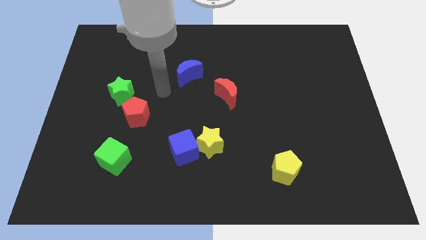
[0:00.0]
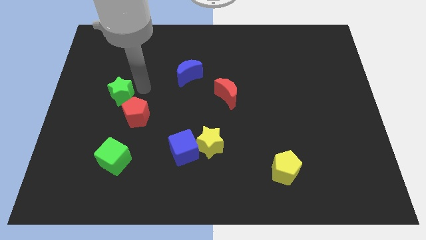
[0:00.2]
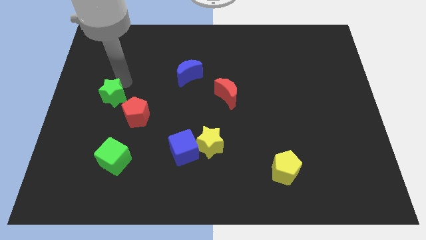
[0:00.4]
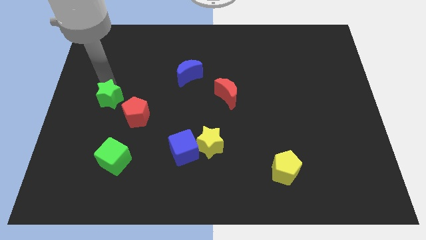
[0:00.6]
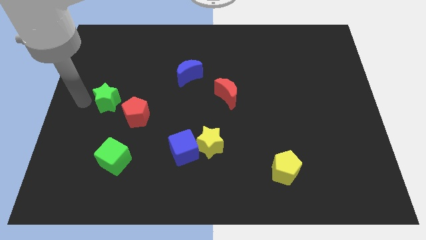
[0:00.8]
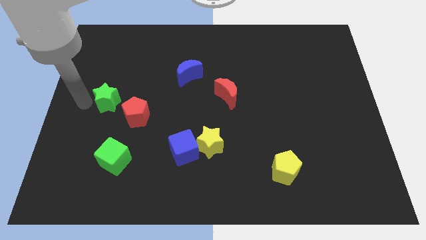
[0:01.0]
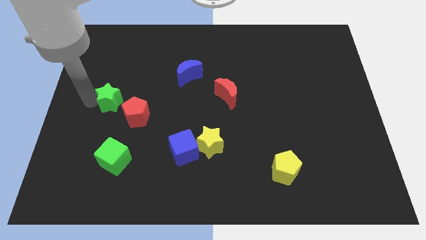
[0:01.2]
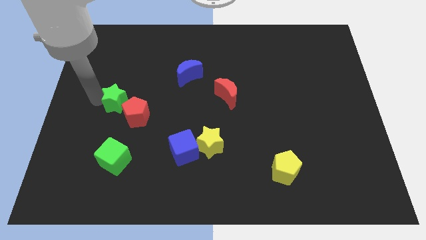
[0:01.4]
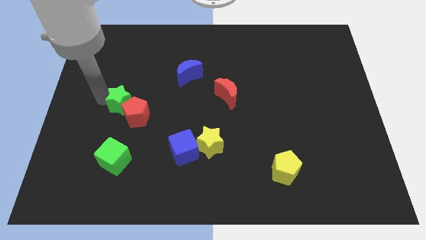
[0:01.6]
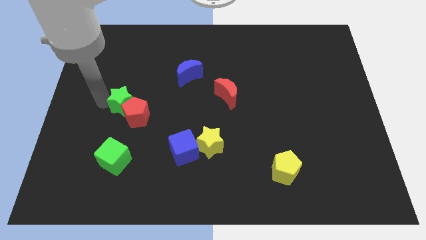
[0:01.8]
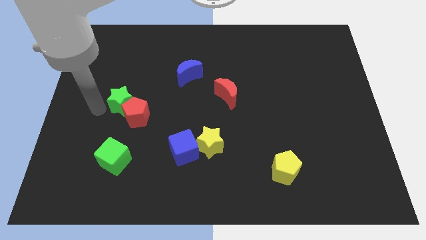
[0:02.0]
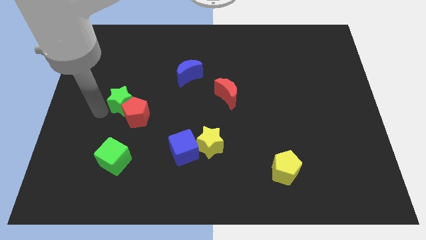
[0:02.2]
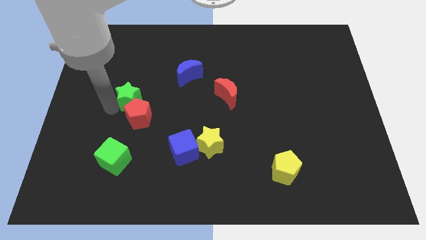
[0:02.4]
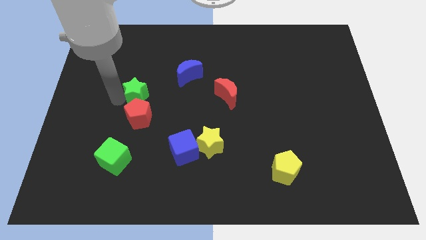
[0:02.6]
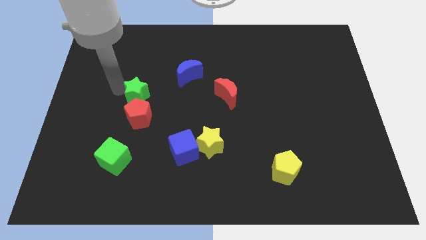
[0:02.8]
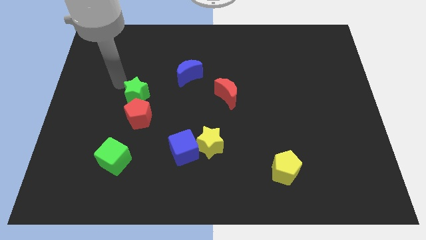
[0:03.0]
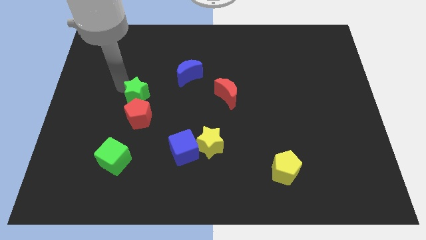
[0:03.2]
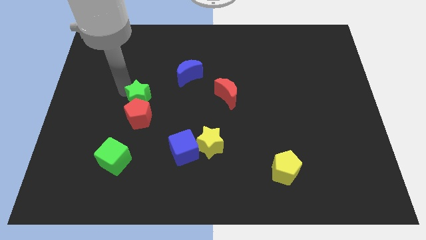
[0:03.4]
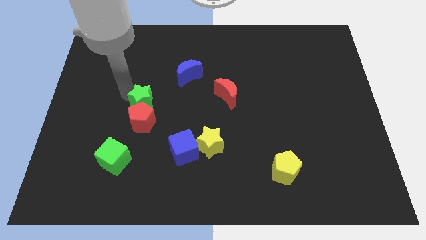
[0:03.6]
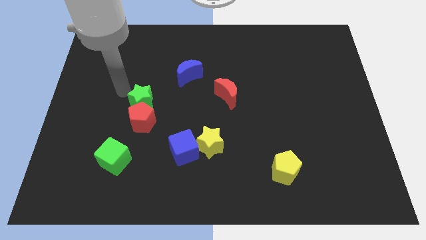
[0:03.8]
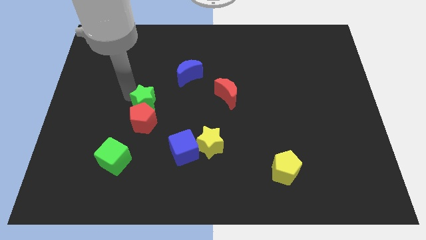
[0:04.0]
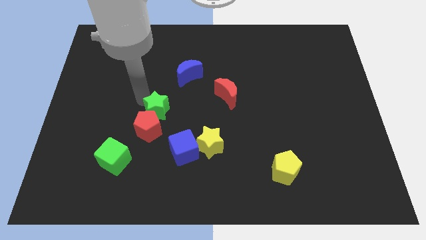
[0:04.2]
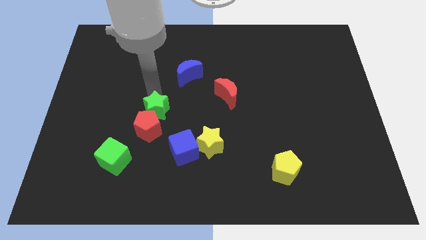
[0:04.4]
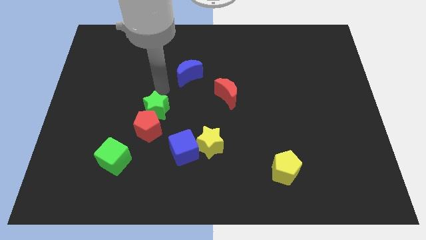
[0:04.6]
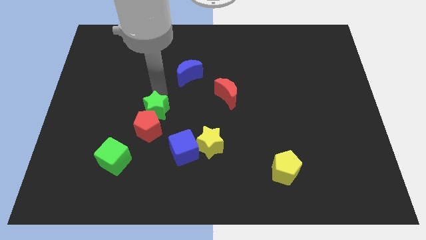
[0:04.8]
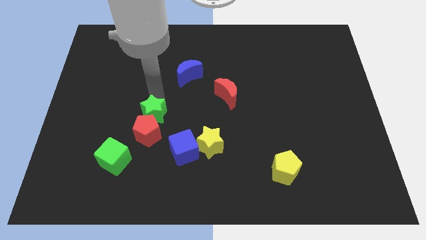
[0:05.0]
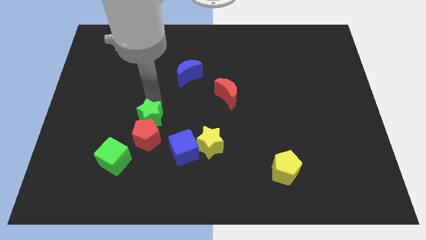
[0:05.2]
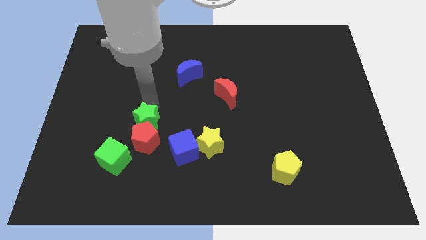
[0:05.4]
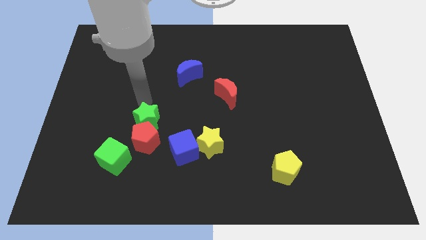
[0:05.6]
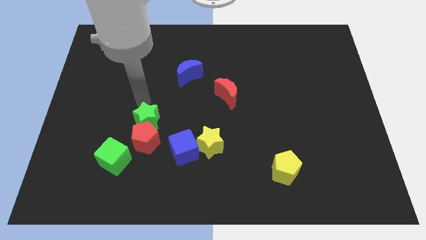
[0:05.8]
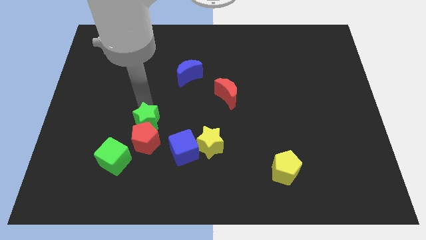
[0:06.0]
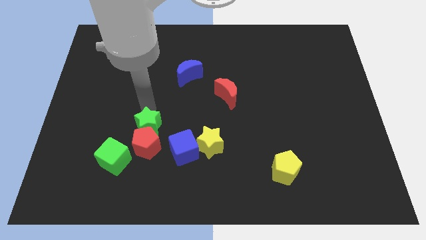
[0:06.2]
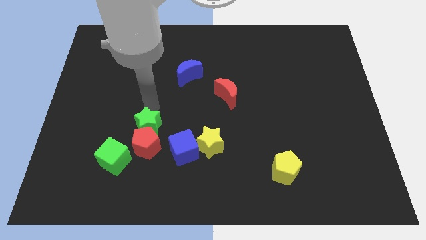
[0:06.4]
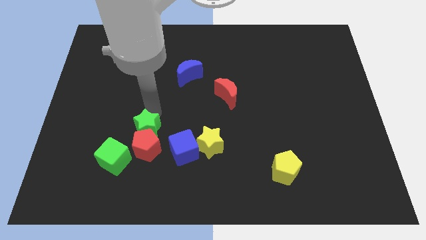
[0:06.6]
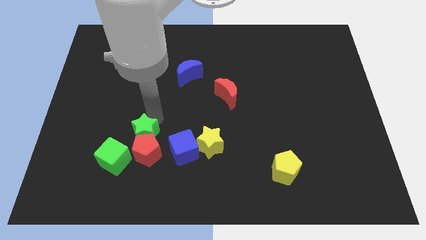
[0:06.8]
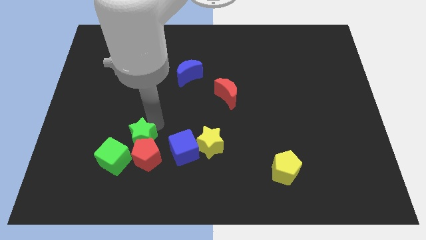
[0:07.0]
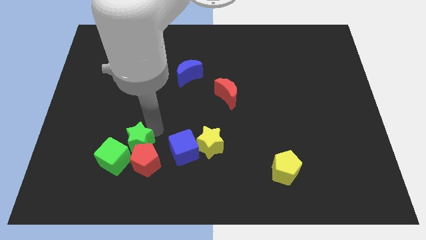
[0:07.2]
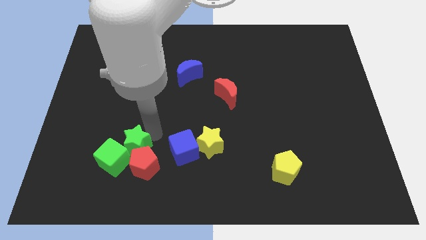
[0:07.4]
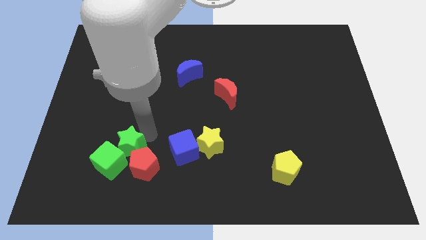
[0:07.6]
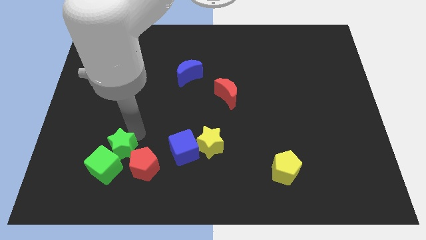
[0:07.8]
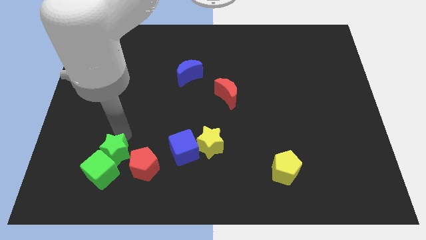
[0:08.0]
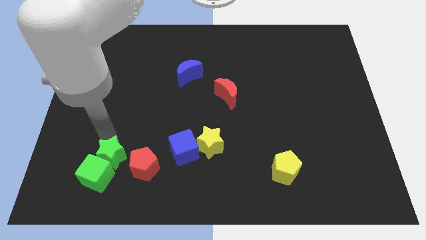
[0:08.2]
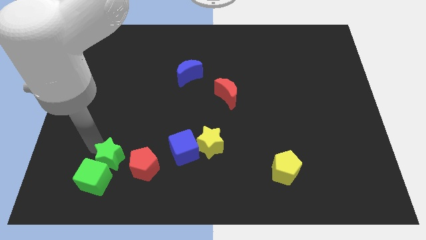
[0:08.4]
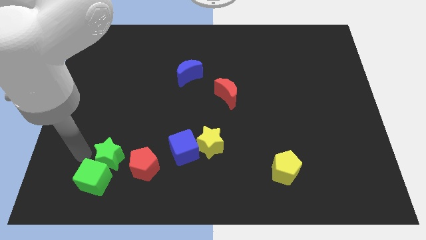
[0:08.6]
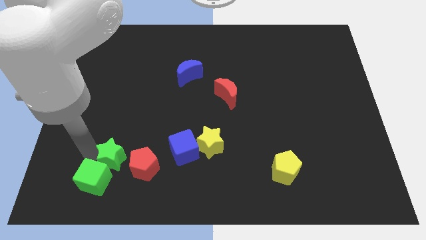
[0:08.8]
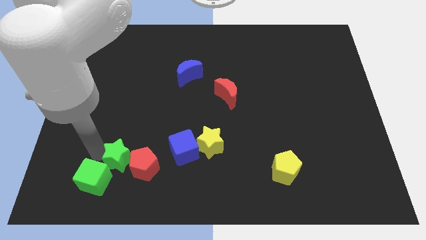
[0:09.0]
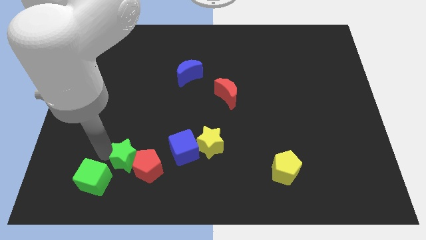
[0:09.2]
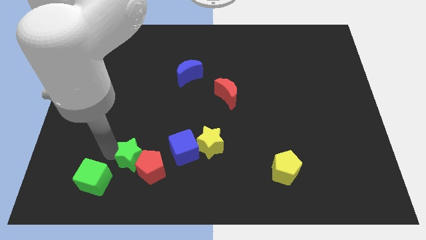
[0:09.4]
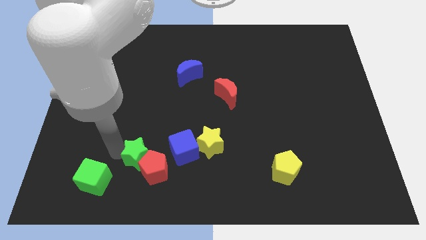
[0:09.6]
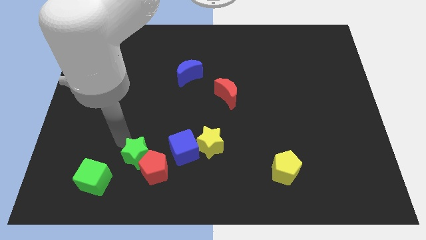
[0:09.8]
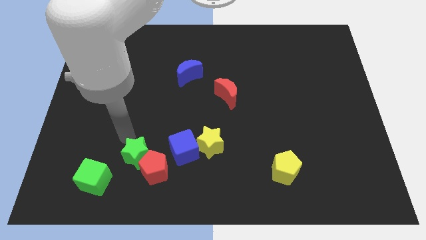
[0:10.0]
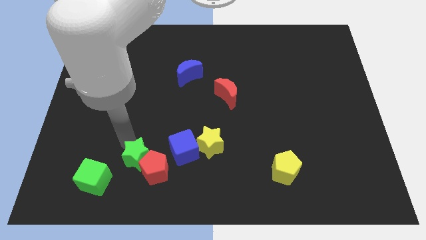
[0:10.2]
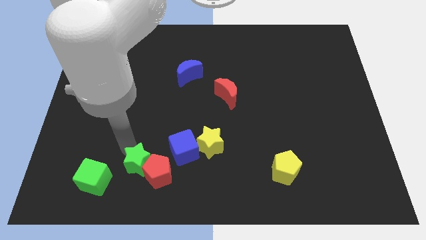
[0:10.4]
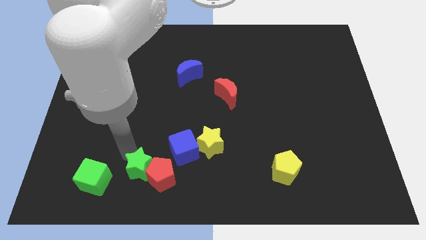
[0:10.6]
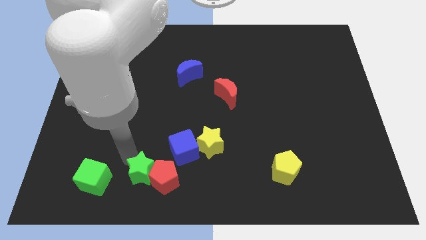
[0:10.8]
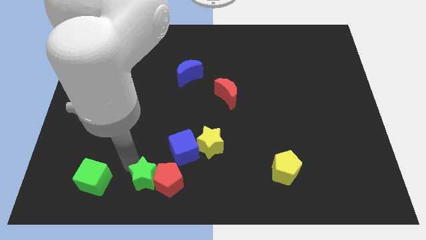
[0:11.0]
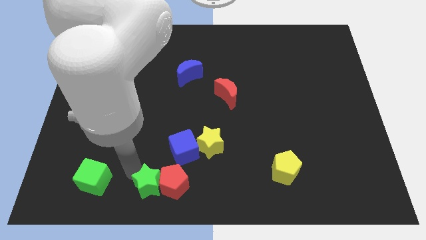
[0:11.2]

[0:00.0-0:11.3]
put the green star to the bottom side

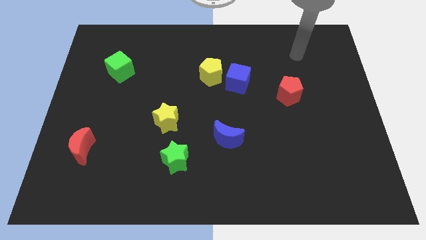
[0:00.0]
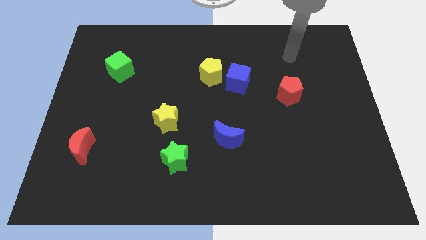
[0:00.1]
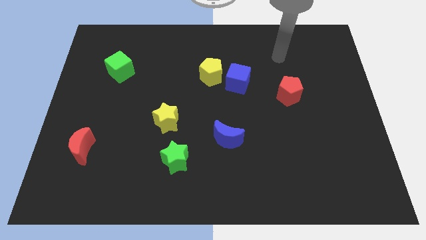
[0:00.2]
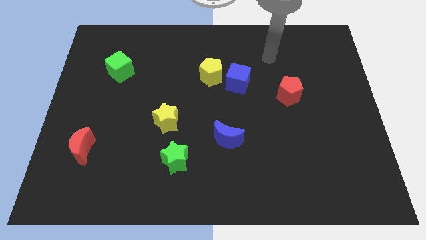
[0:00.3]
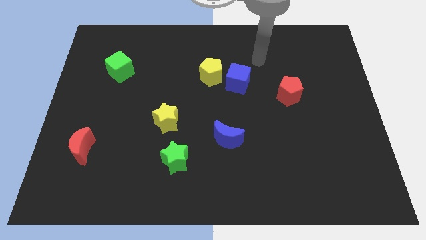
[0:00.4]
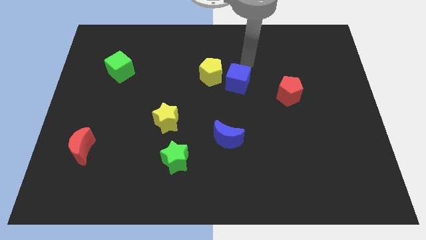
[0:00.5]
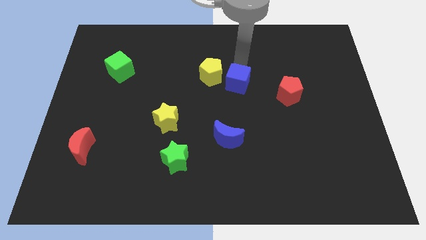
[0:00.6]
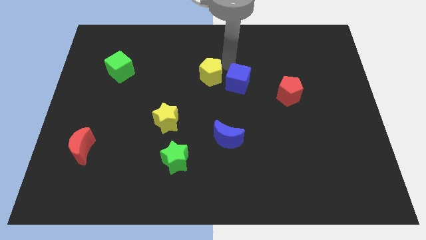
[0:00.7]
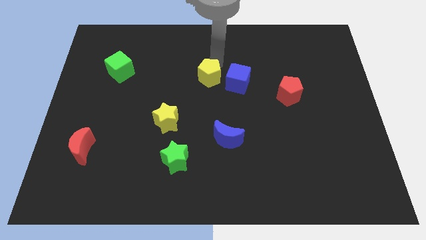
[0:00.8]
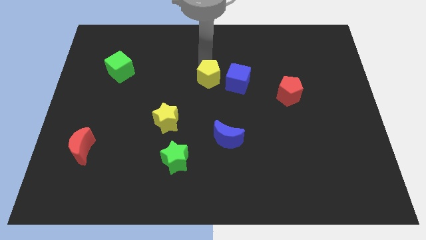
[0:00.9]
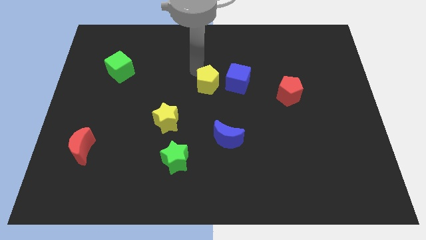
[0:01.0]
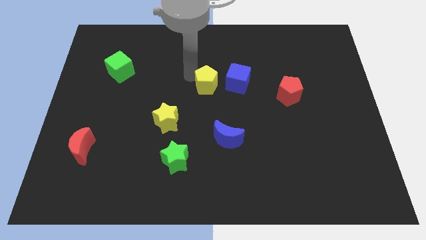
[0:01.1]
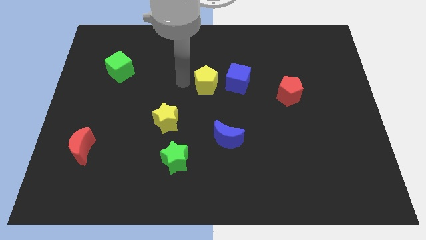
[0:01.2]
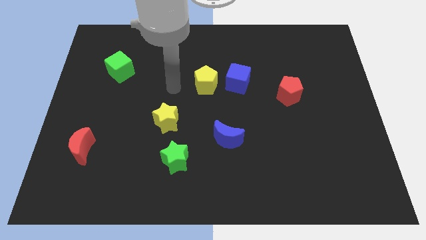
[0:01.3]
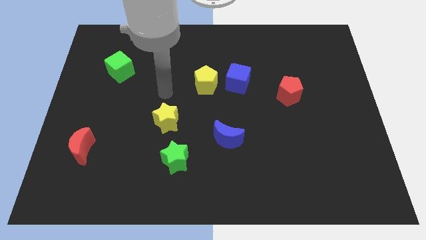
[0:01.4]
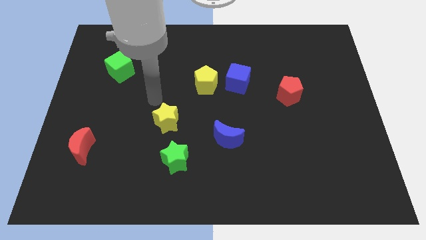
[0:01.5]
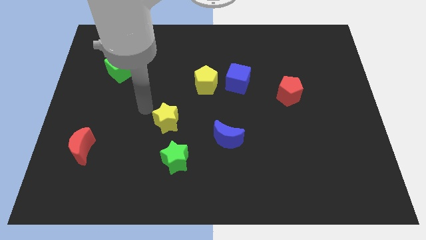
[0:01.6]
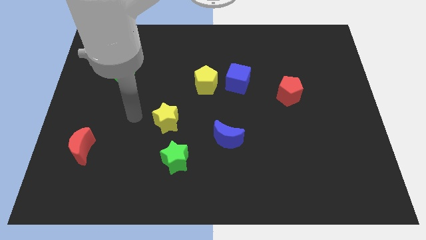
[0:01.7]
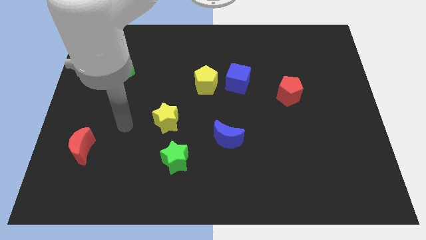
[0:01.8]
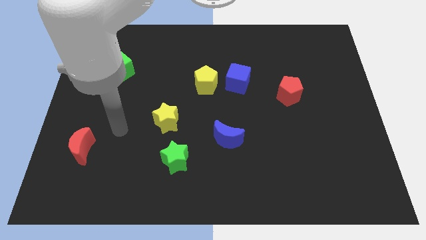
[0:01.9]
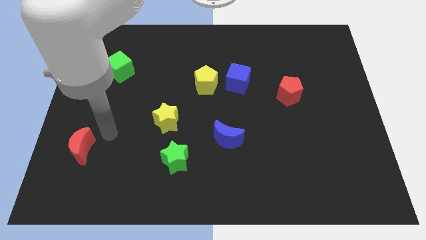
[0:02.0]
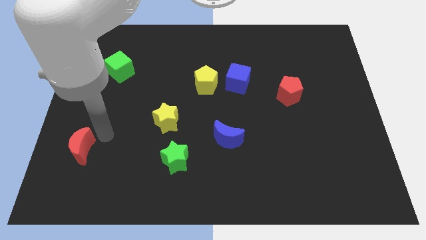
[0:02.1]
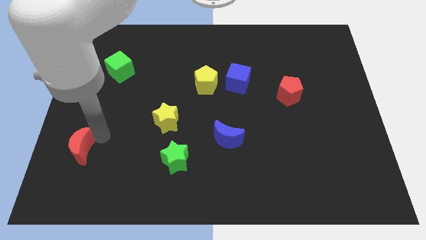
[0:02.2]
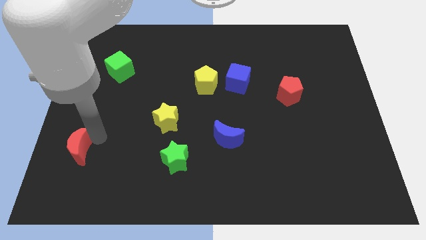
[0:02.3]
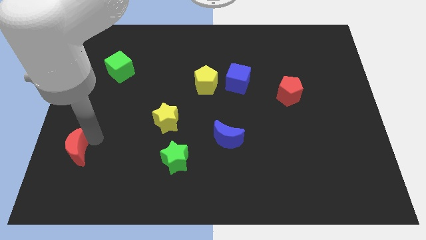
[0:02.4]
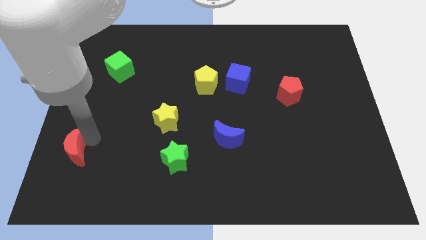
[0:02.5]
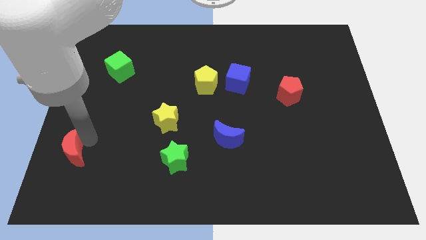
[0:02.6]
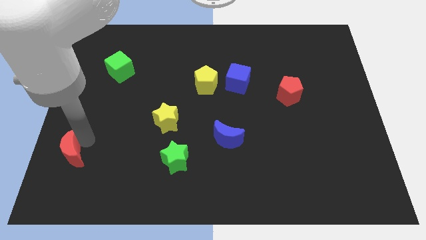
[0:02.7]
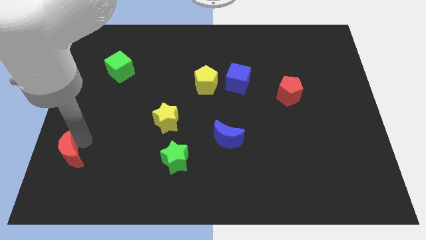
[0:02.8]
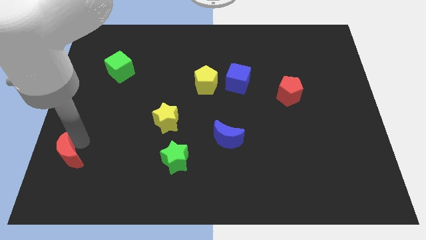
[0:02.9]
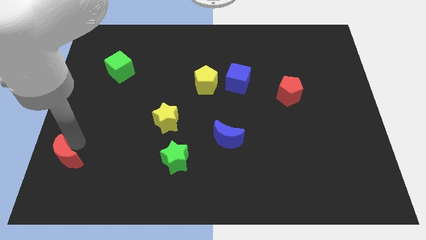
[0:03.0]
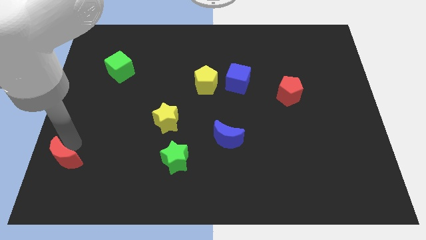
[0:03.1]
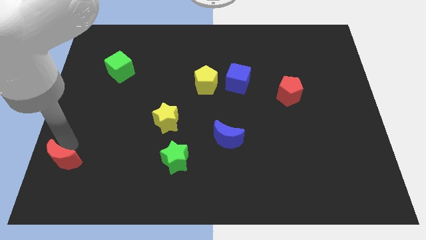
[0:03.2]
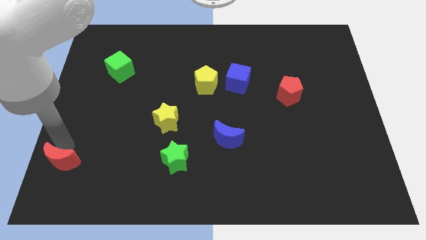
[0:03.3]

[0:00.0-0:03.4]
slide the red moon to the bottom left
